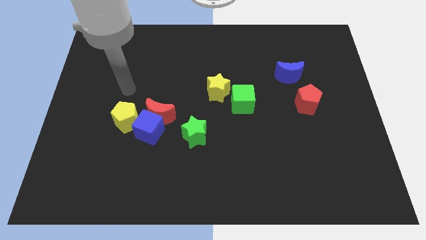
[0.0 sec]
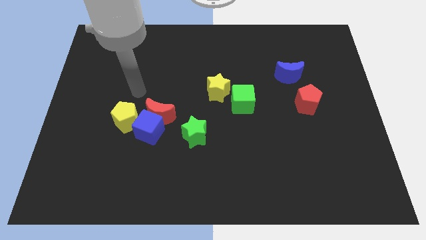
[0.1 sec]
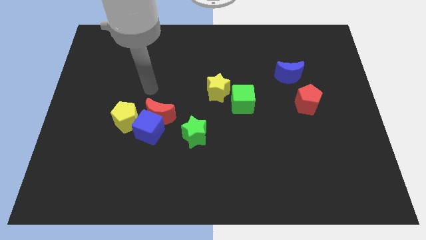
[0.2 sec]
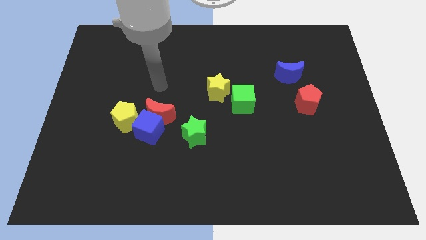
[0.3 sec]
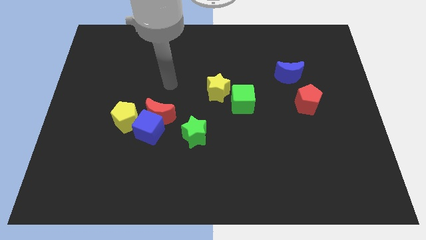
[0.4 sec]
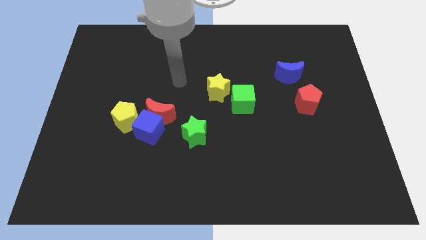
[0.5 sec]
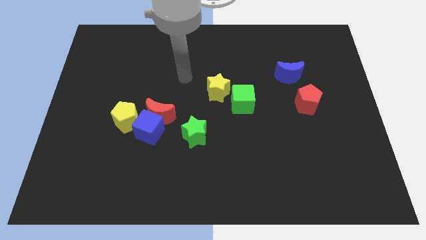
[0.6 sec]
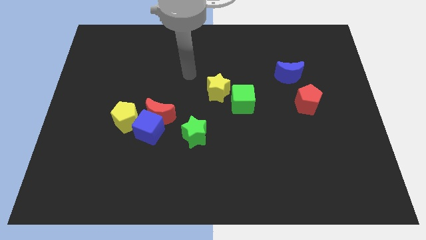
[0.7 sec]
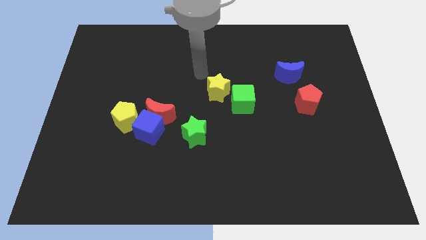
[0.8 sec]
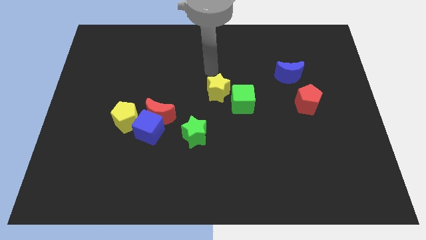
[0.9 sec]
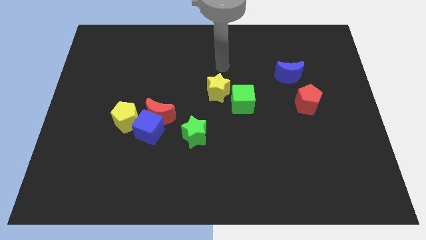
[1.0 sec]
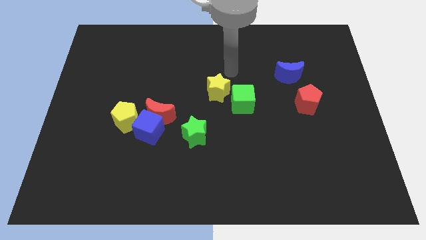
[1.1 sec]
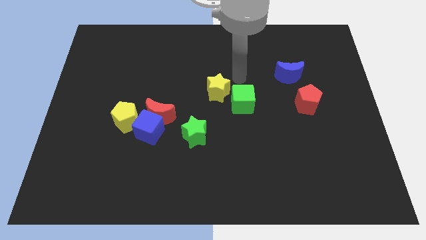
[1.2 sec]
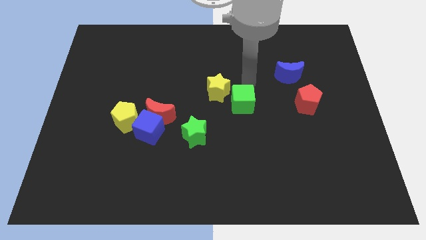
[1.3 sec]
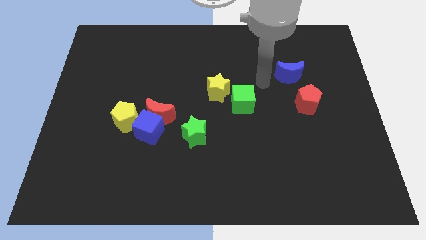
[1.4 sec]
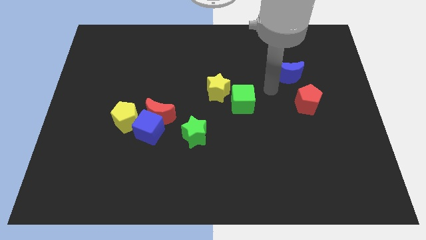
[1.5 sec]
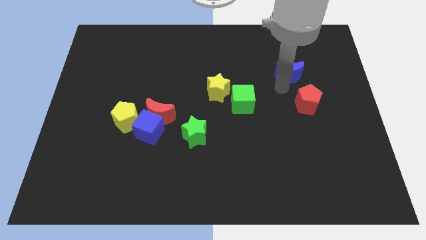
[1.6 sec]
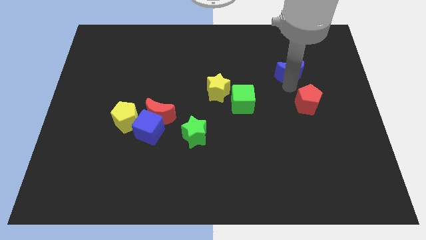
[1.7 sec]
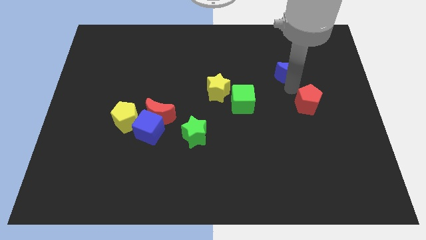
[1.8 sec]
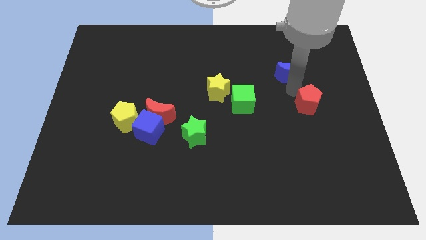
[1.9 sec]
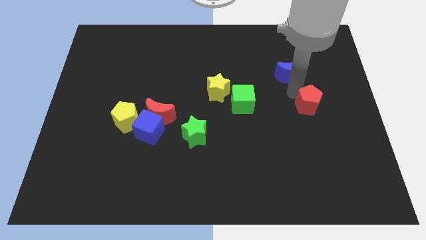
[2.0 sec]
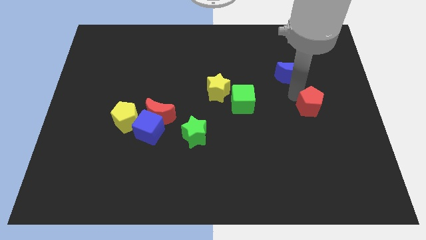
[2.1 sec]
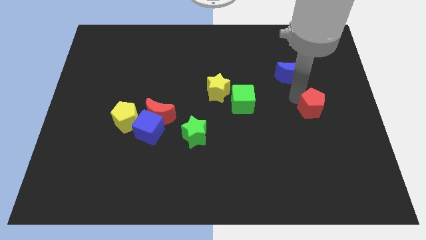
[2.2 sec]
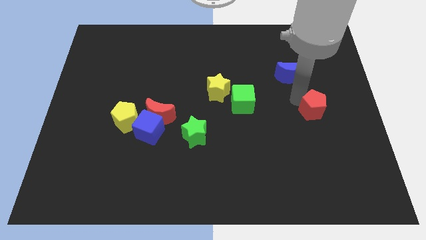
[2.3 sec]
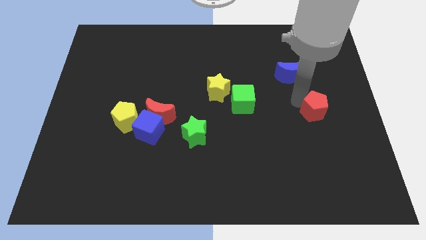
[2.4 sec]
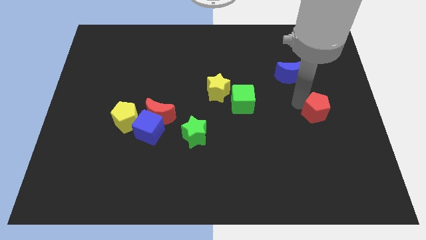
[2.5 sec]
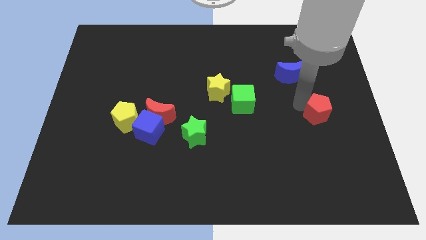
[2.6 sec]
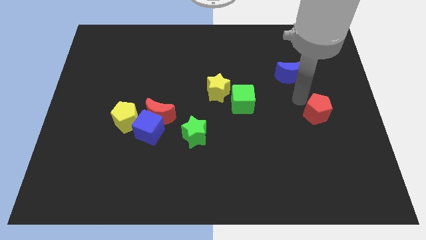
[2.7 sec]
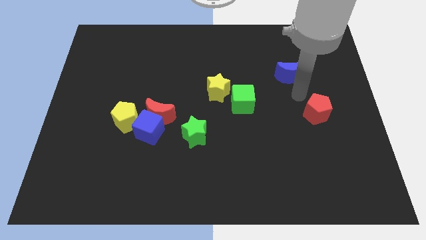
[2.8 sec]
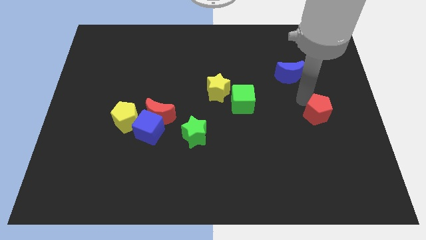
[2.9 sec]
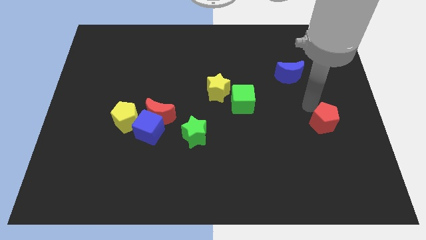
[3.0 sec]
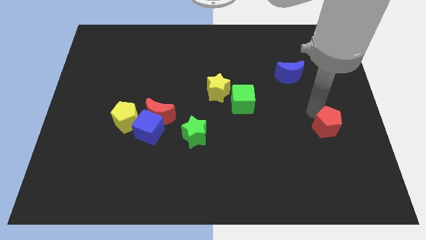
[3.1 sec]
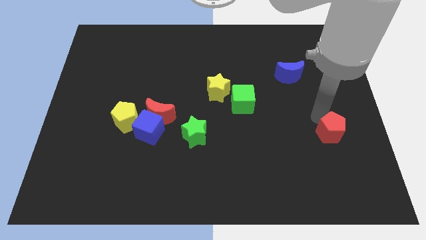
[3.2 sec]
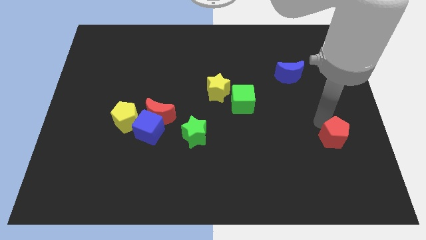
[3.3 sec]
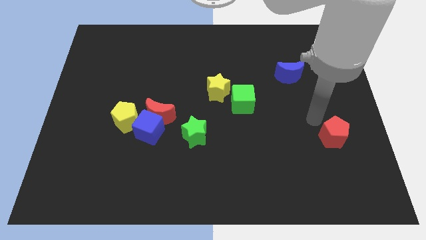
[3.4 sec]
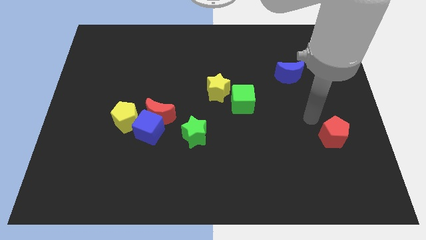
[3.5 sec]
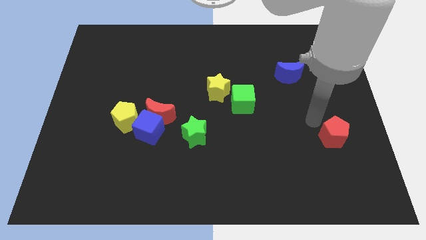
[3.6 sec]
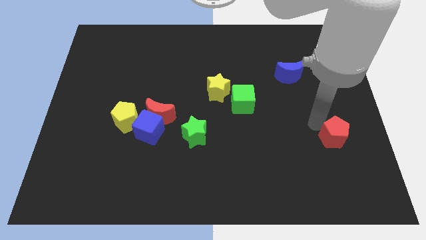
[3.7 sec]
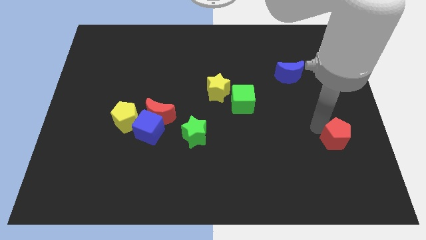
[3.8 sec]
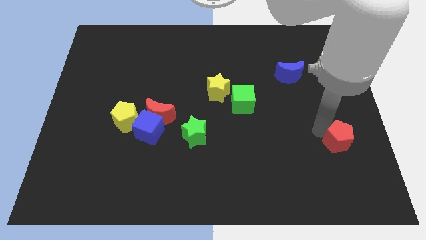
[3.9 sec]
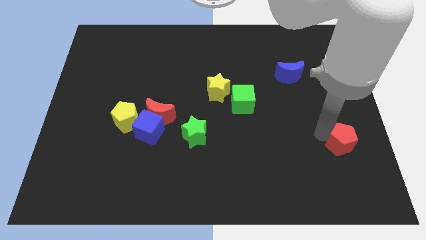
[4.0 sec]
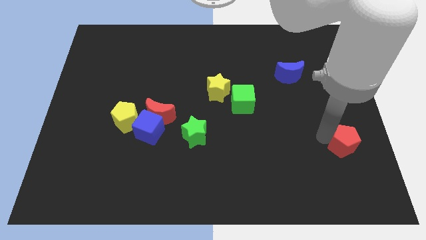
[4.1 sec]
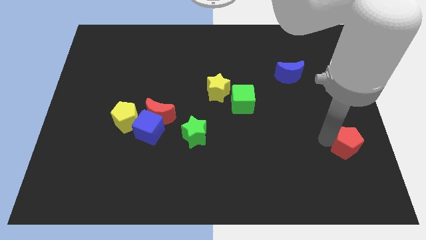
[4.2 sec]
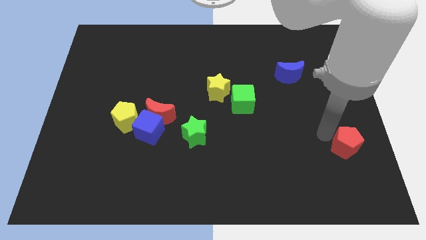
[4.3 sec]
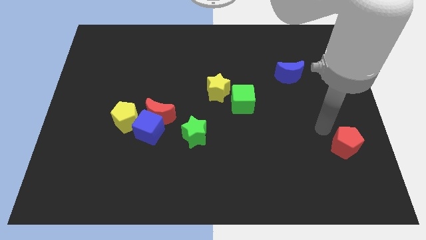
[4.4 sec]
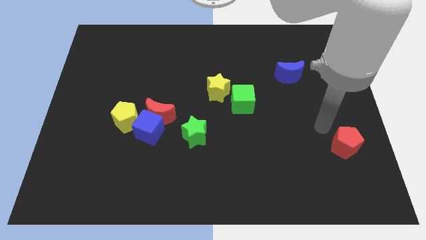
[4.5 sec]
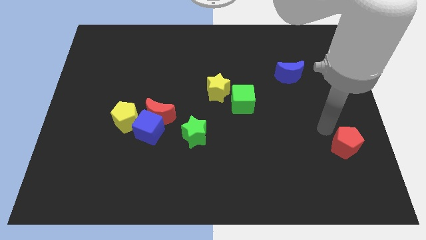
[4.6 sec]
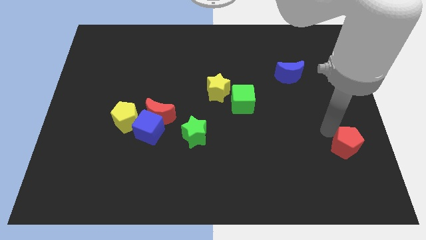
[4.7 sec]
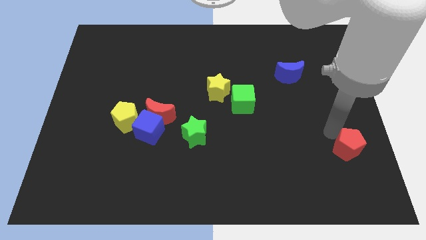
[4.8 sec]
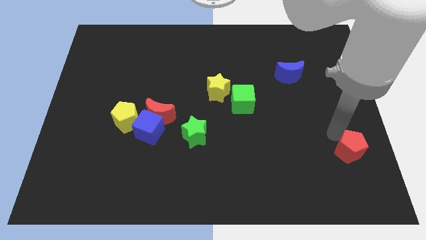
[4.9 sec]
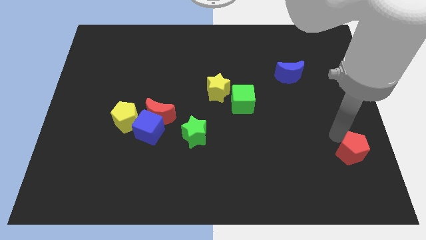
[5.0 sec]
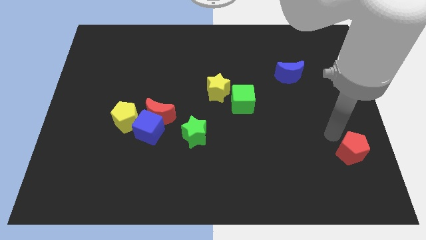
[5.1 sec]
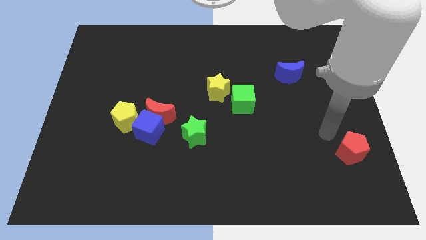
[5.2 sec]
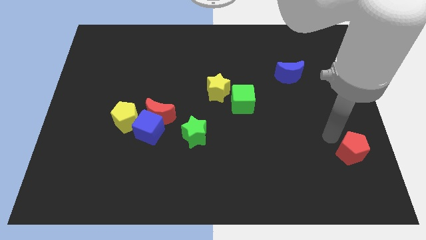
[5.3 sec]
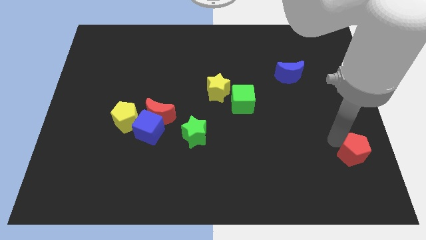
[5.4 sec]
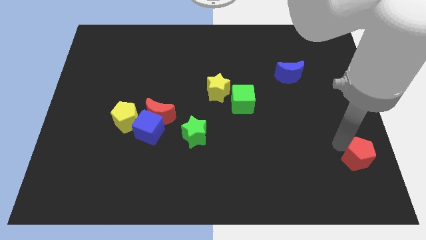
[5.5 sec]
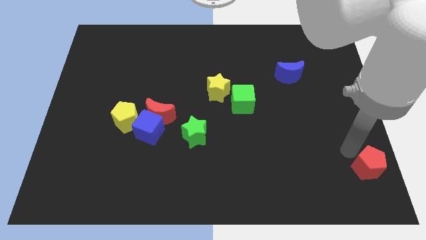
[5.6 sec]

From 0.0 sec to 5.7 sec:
push the red pentagon to the bottom right corner

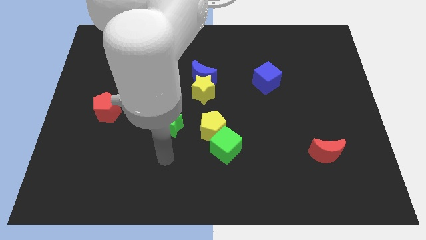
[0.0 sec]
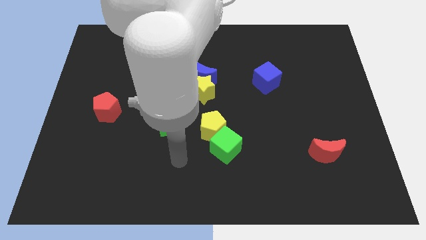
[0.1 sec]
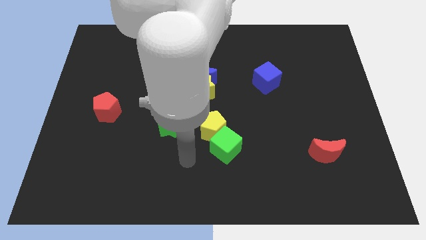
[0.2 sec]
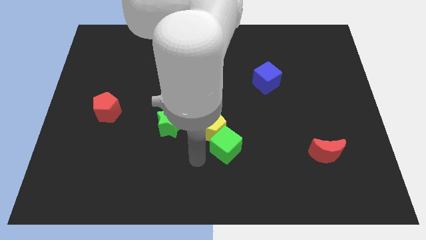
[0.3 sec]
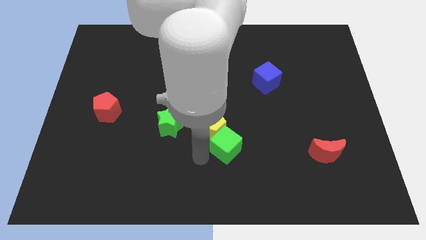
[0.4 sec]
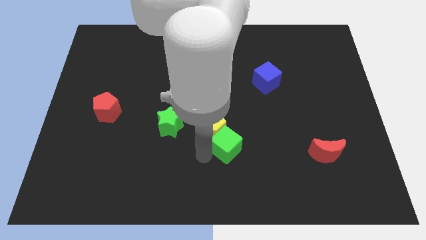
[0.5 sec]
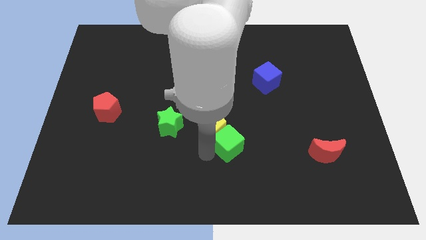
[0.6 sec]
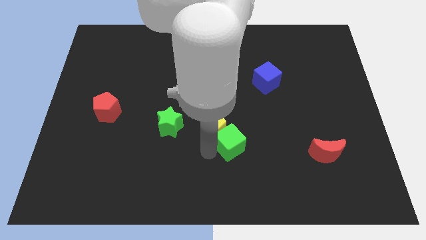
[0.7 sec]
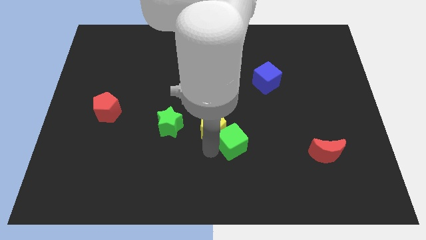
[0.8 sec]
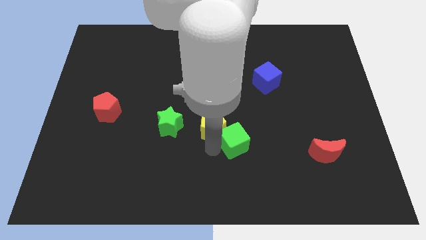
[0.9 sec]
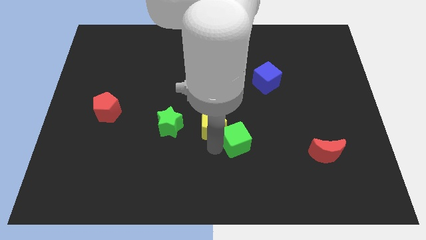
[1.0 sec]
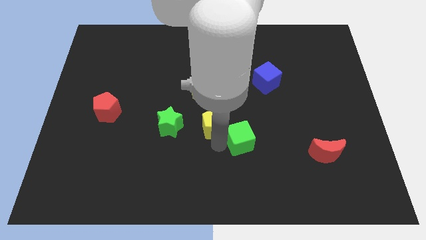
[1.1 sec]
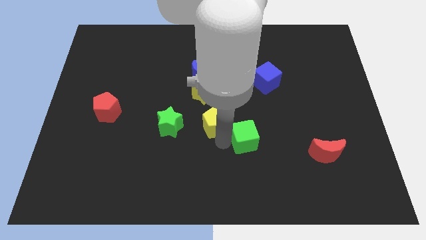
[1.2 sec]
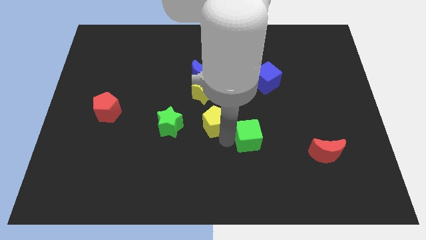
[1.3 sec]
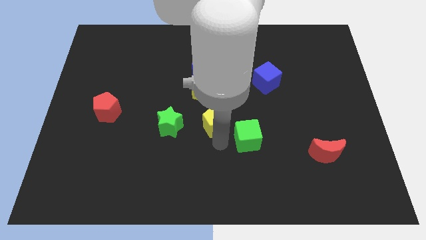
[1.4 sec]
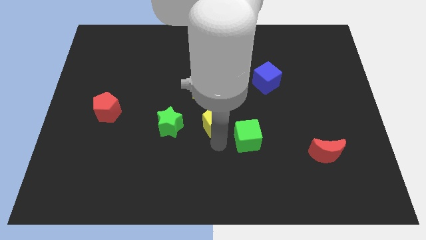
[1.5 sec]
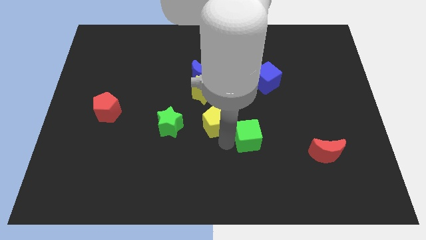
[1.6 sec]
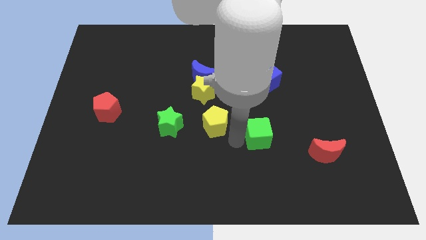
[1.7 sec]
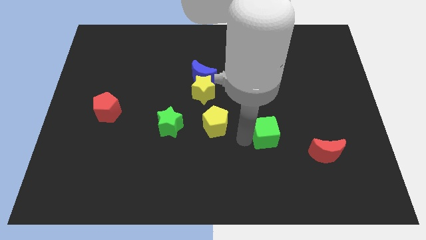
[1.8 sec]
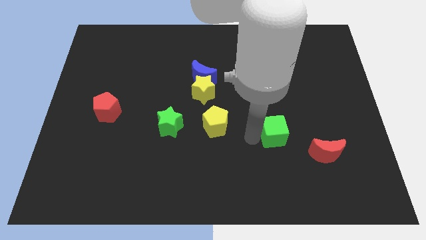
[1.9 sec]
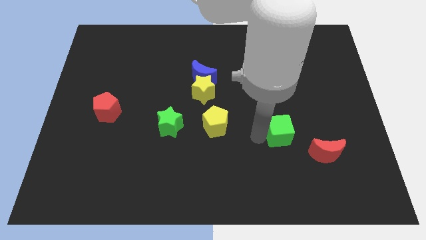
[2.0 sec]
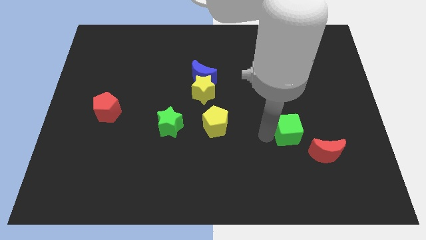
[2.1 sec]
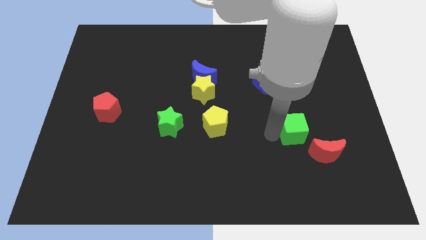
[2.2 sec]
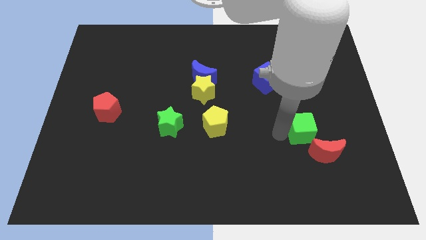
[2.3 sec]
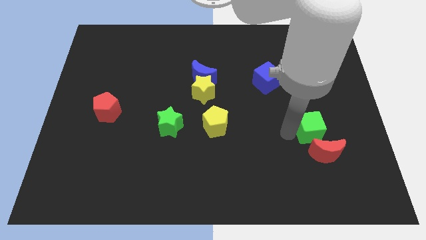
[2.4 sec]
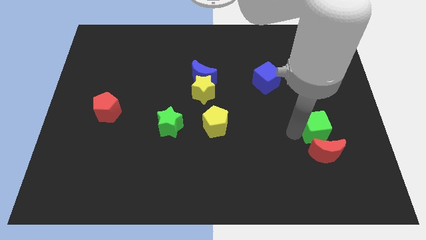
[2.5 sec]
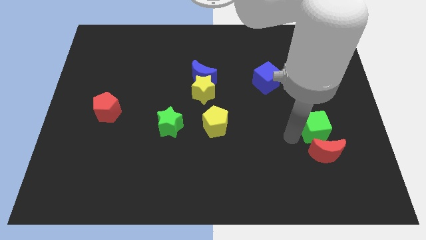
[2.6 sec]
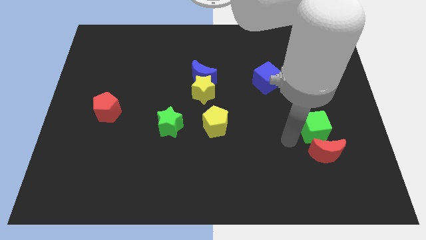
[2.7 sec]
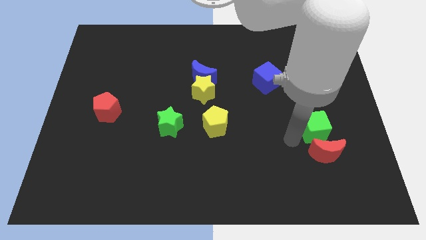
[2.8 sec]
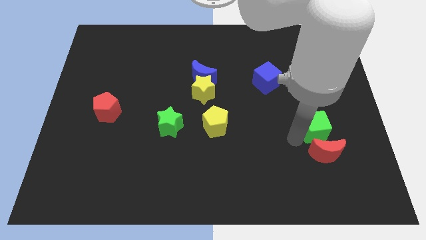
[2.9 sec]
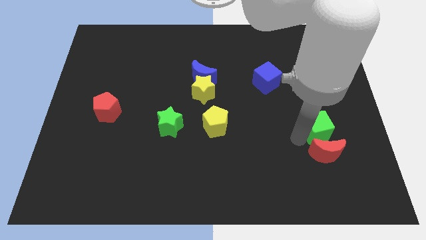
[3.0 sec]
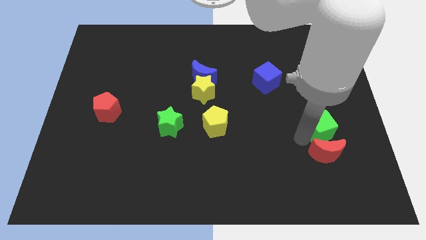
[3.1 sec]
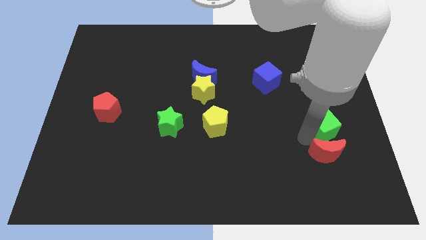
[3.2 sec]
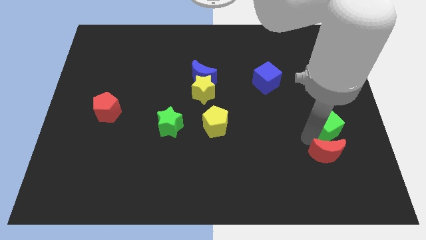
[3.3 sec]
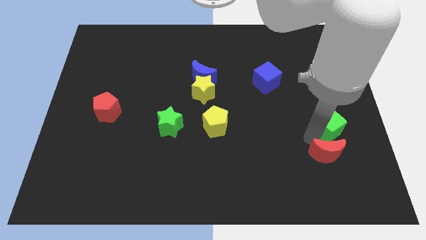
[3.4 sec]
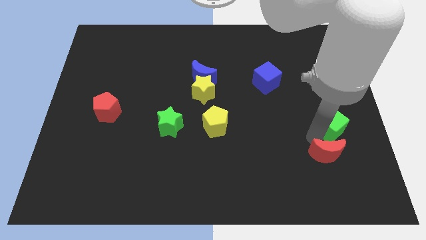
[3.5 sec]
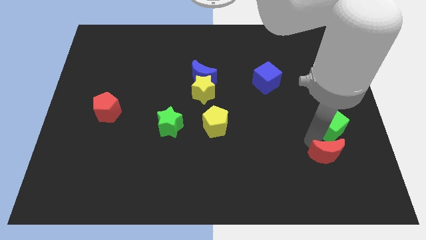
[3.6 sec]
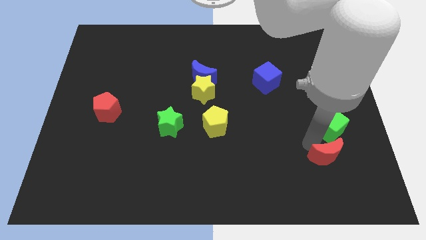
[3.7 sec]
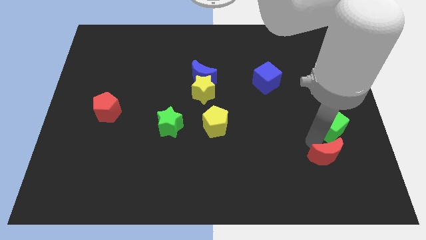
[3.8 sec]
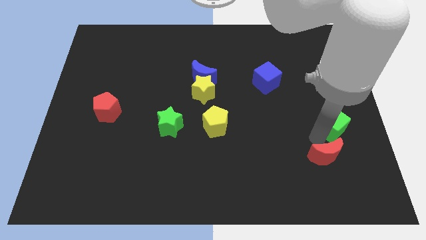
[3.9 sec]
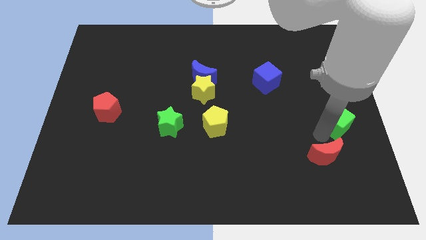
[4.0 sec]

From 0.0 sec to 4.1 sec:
slide the green cube to the right side of the board
